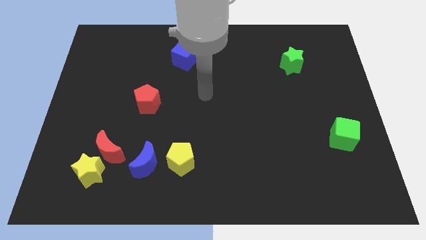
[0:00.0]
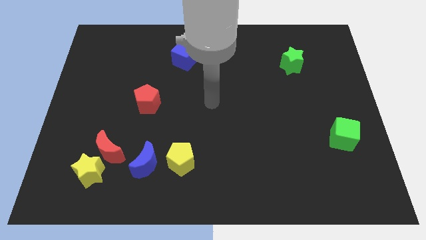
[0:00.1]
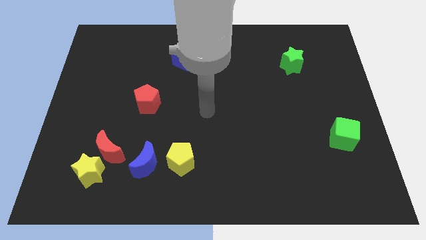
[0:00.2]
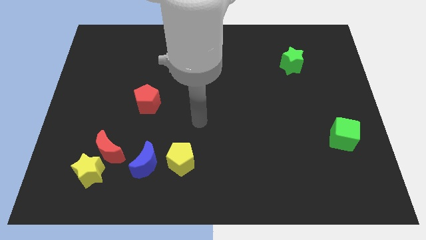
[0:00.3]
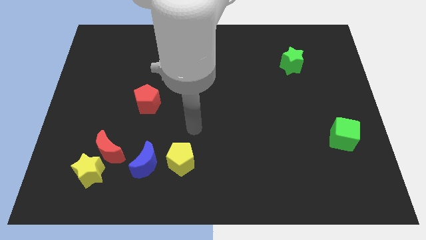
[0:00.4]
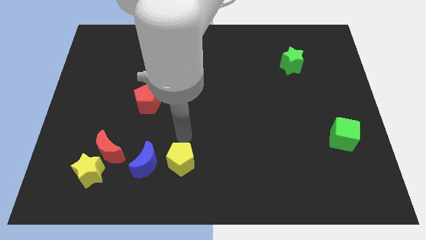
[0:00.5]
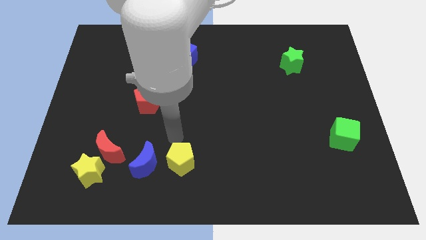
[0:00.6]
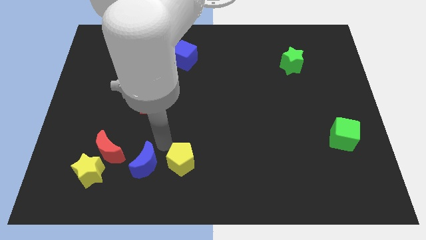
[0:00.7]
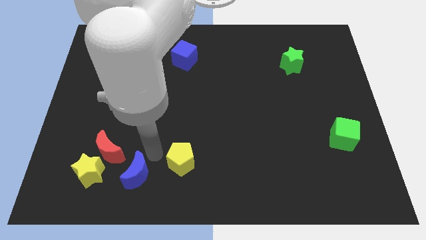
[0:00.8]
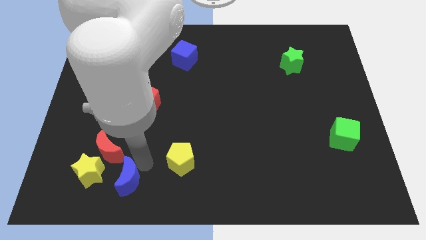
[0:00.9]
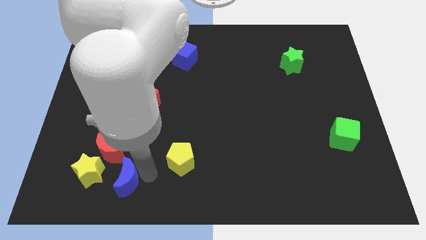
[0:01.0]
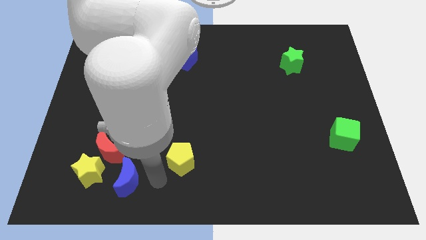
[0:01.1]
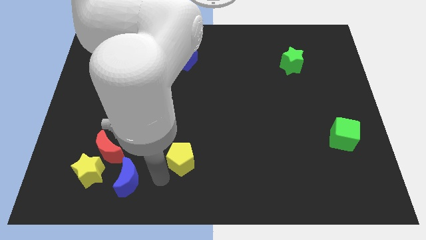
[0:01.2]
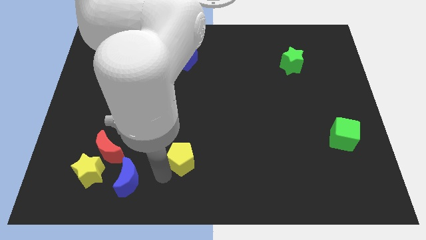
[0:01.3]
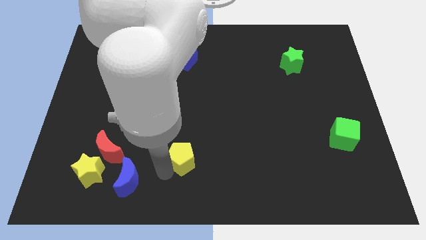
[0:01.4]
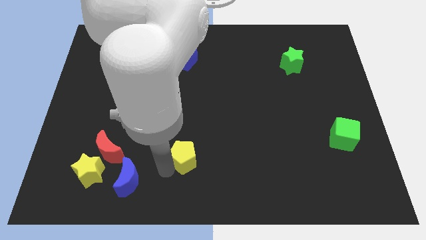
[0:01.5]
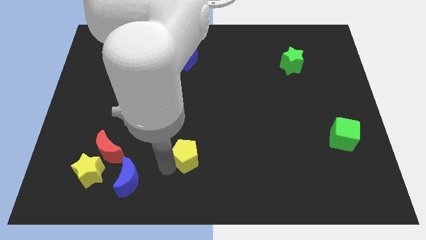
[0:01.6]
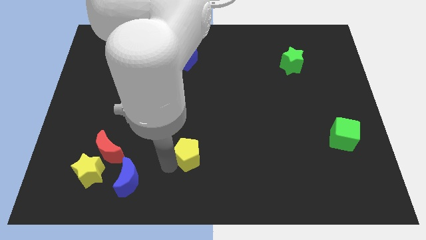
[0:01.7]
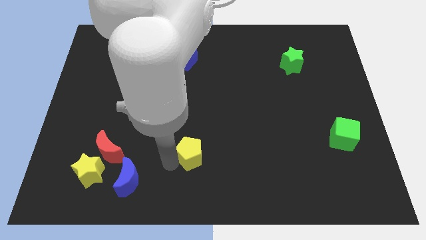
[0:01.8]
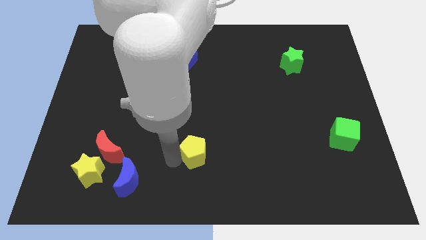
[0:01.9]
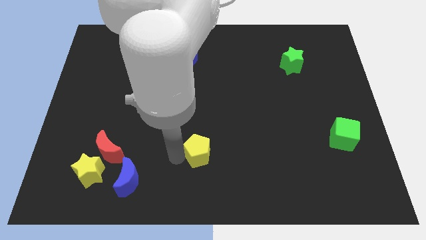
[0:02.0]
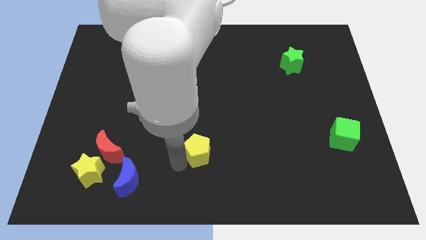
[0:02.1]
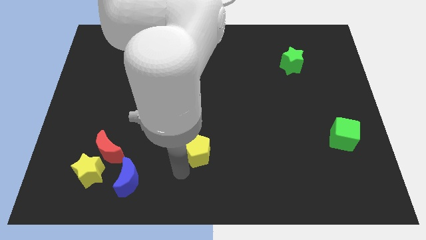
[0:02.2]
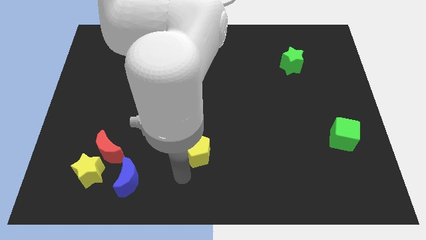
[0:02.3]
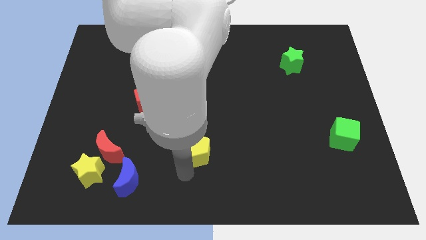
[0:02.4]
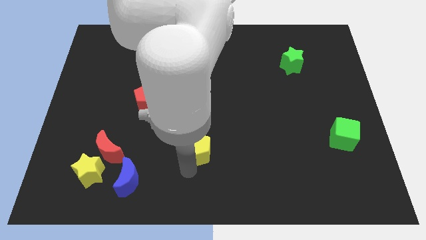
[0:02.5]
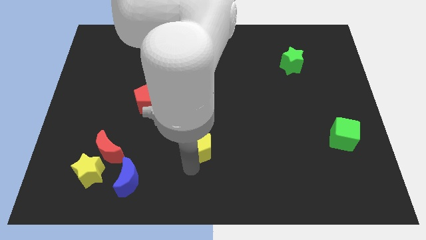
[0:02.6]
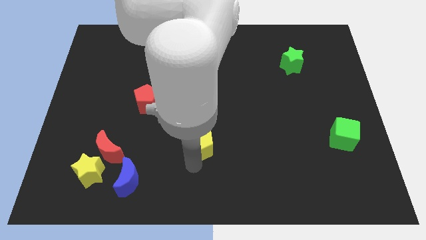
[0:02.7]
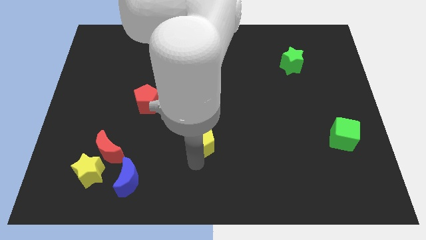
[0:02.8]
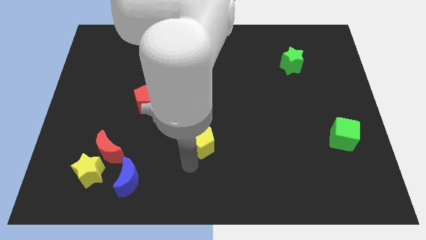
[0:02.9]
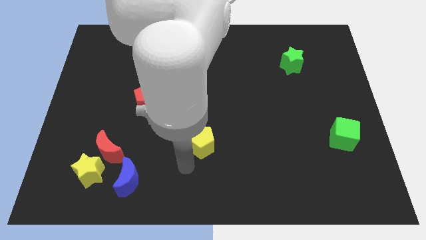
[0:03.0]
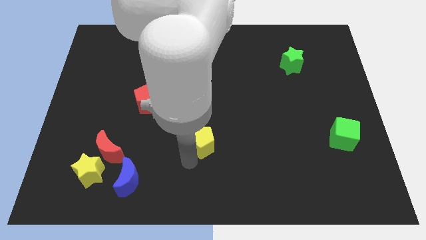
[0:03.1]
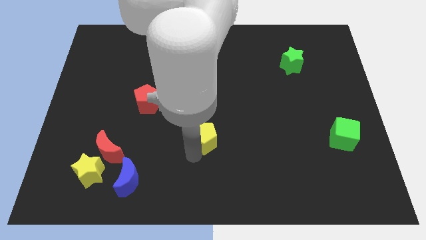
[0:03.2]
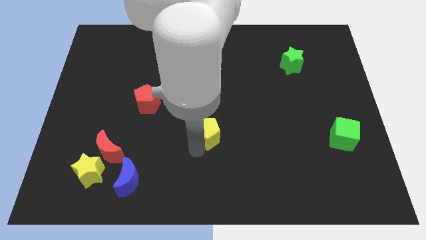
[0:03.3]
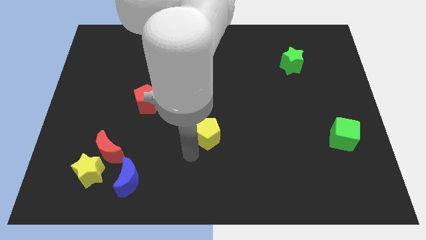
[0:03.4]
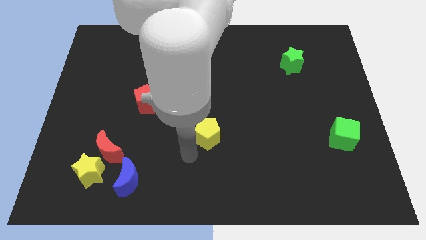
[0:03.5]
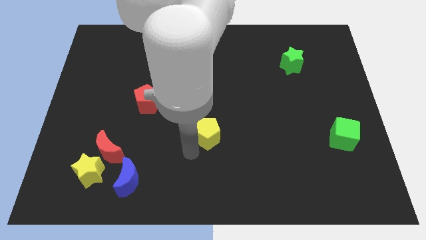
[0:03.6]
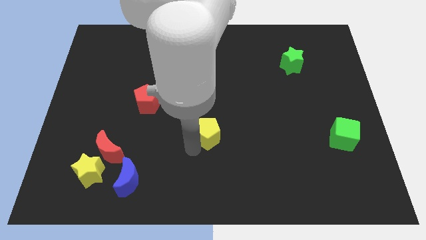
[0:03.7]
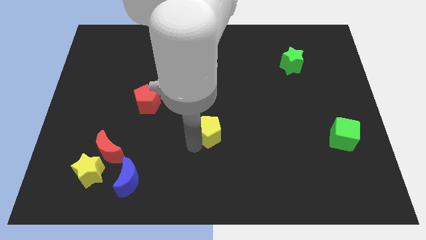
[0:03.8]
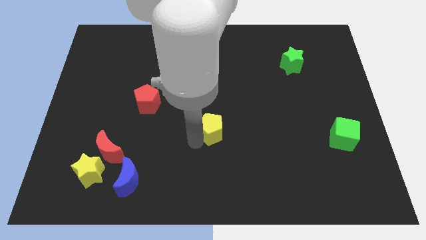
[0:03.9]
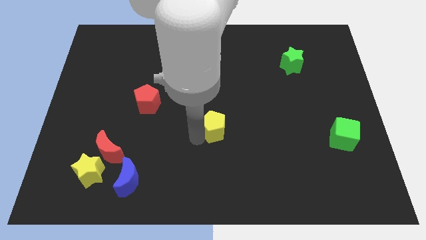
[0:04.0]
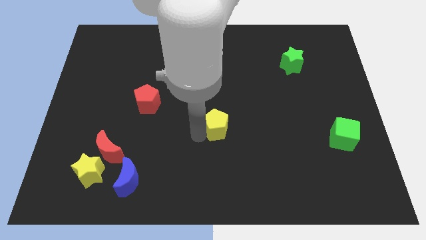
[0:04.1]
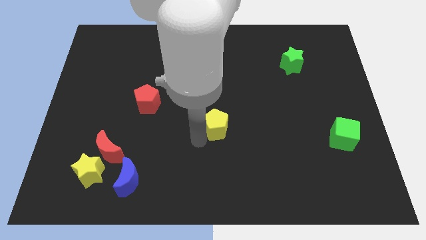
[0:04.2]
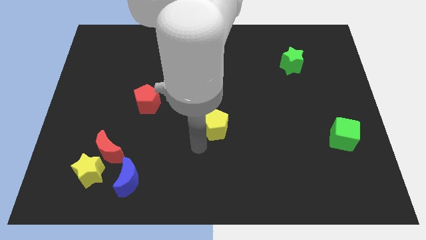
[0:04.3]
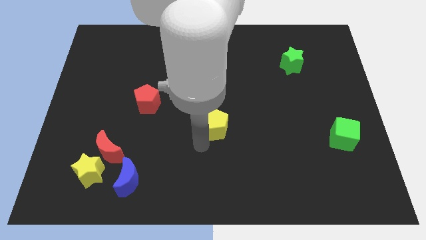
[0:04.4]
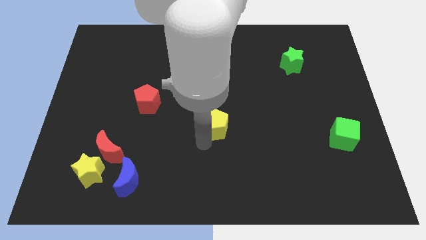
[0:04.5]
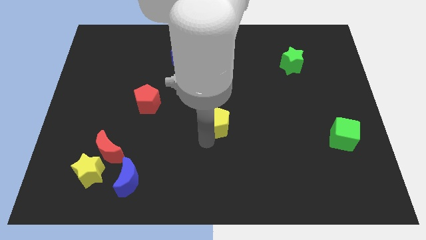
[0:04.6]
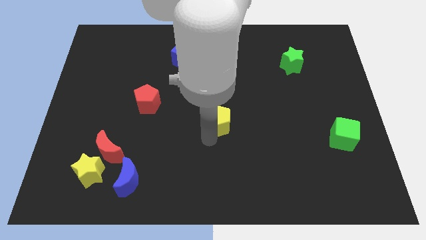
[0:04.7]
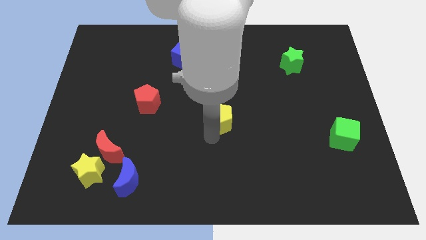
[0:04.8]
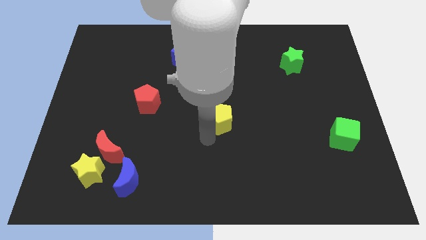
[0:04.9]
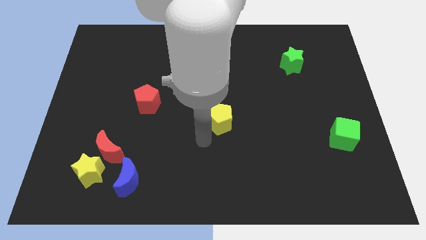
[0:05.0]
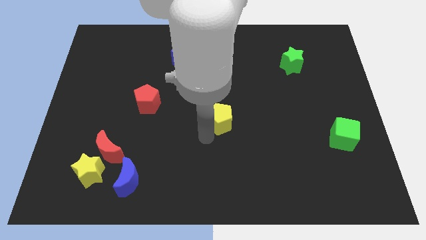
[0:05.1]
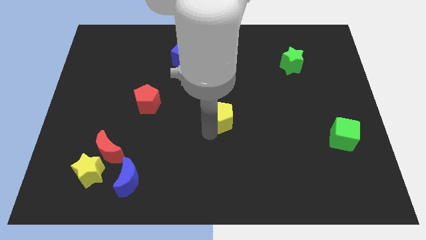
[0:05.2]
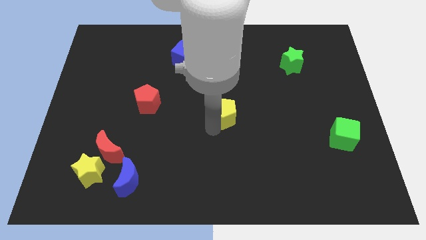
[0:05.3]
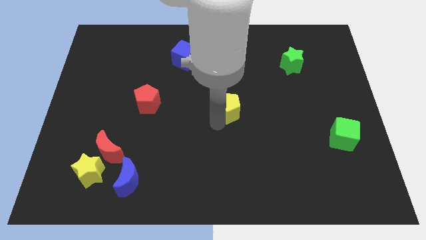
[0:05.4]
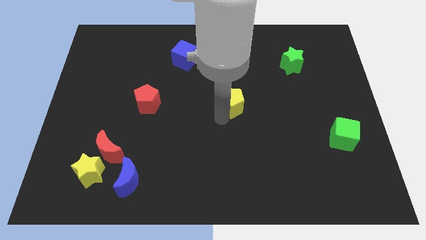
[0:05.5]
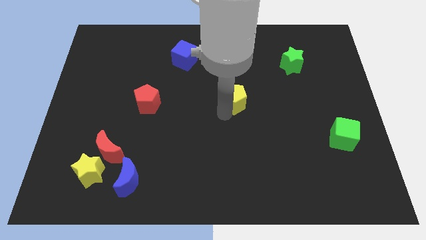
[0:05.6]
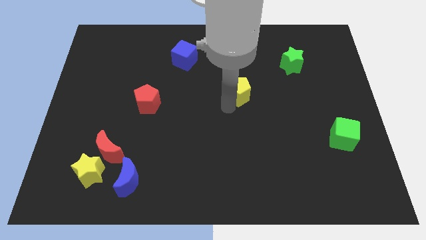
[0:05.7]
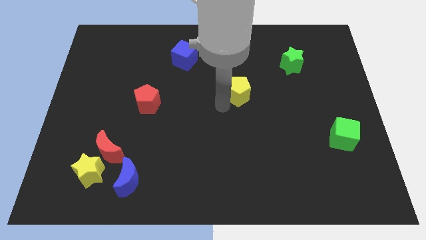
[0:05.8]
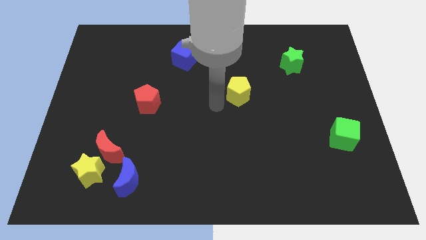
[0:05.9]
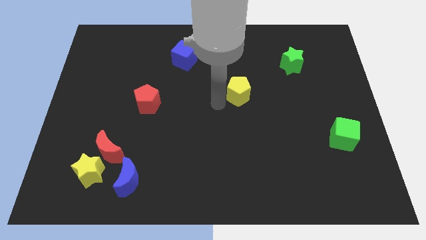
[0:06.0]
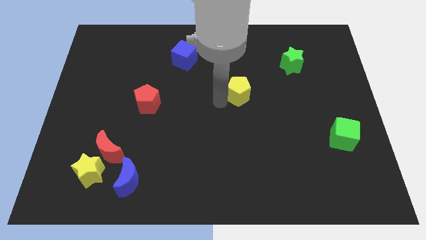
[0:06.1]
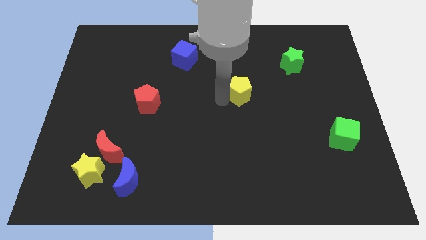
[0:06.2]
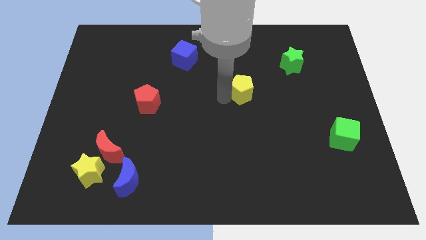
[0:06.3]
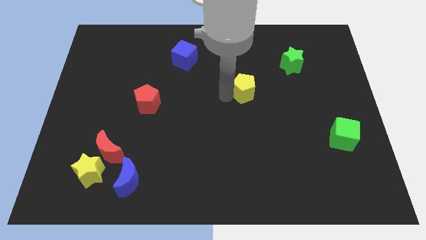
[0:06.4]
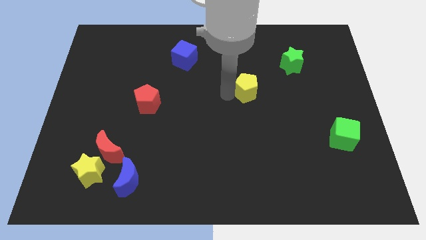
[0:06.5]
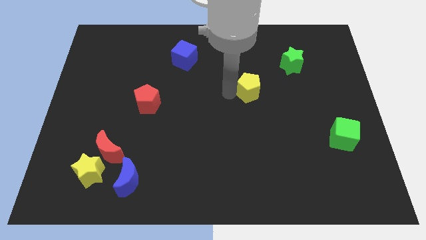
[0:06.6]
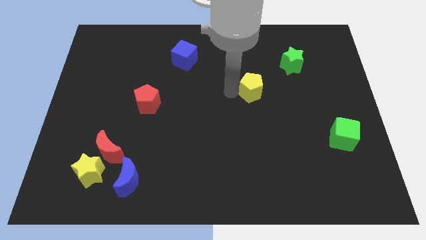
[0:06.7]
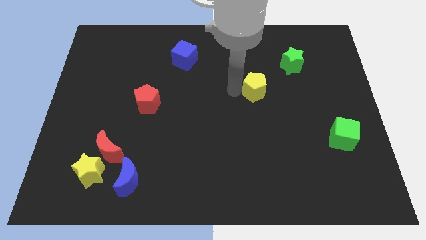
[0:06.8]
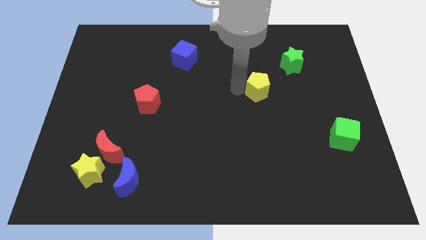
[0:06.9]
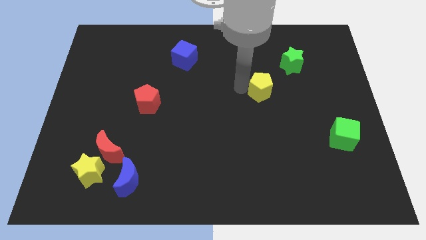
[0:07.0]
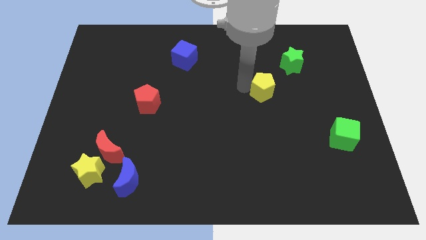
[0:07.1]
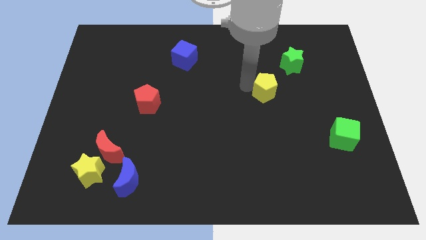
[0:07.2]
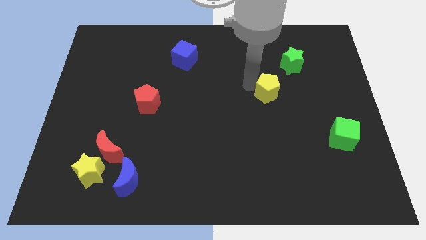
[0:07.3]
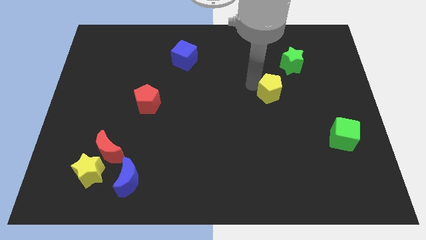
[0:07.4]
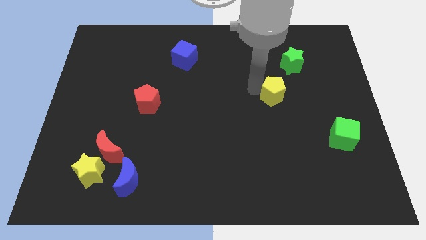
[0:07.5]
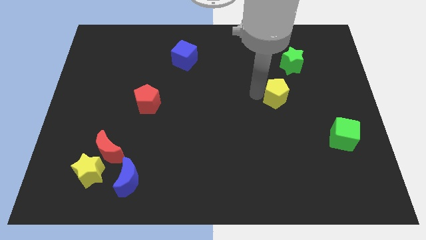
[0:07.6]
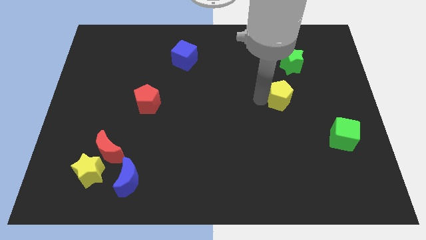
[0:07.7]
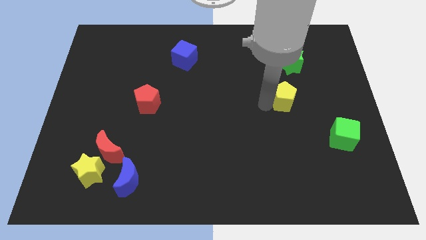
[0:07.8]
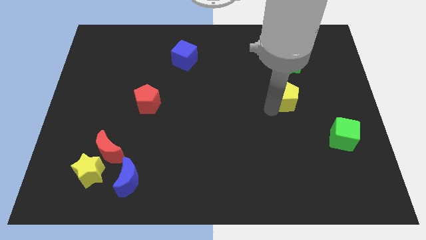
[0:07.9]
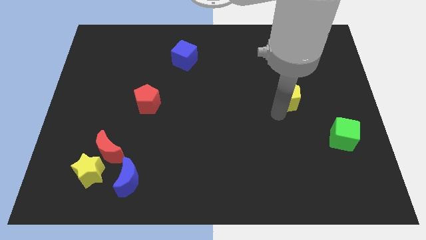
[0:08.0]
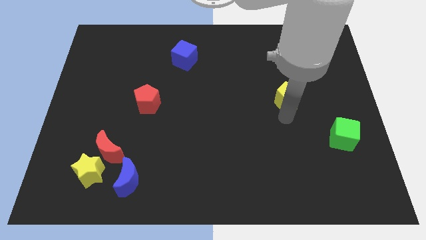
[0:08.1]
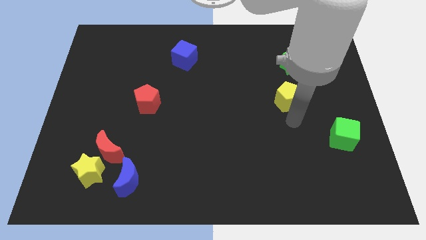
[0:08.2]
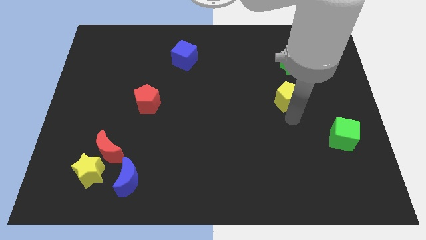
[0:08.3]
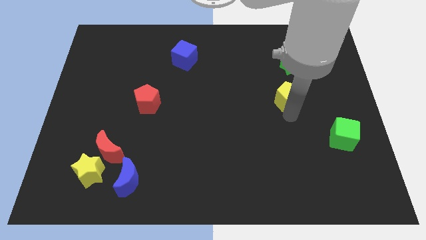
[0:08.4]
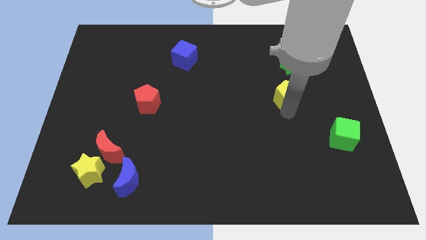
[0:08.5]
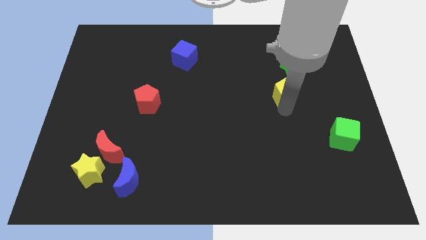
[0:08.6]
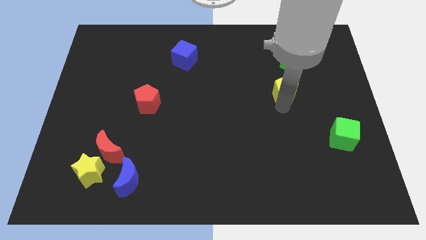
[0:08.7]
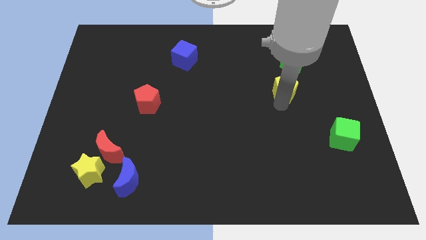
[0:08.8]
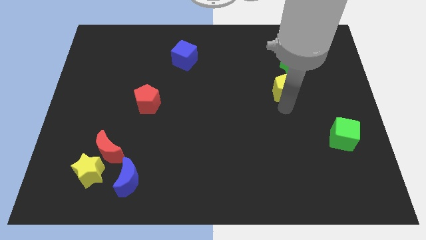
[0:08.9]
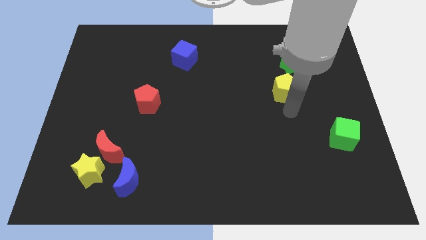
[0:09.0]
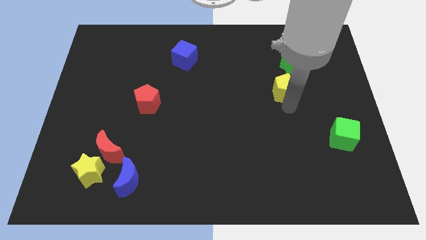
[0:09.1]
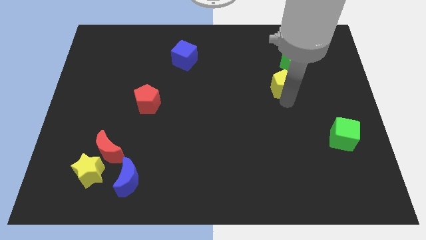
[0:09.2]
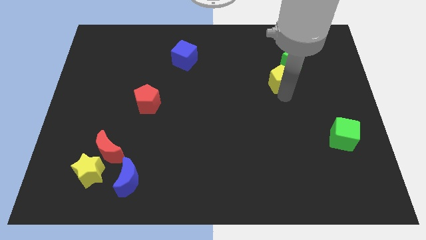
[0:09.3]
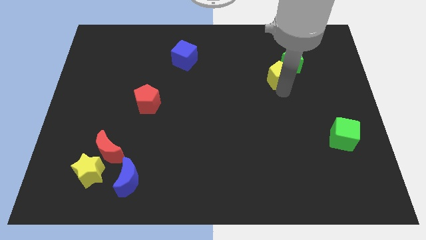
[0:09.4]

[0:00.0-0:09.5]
push the yellow pentagon close to the green star
